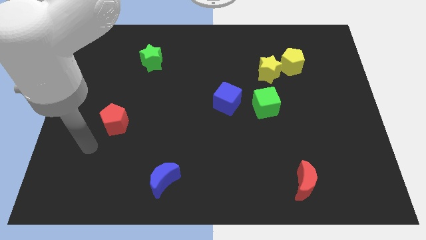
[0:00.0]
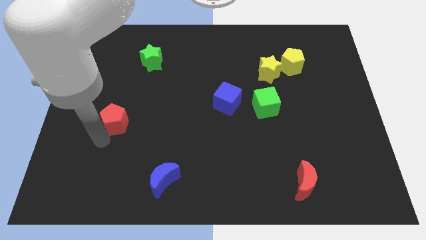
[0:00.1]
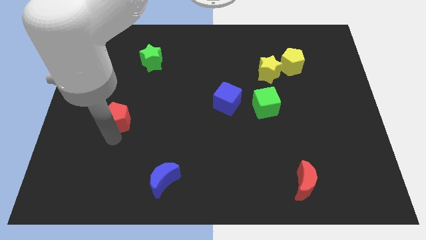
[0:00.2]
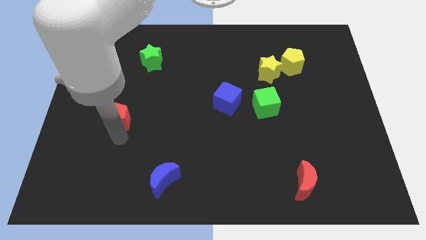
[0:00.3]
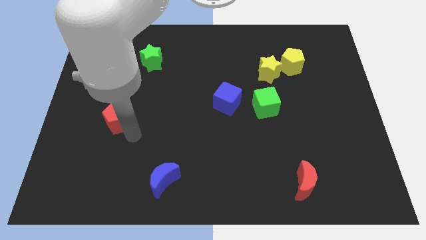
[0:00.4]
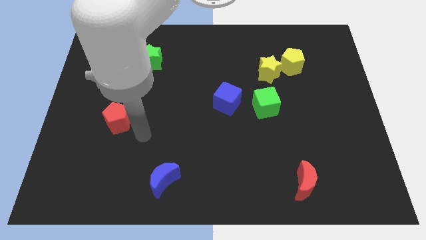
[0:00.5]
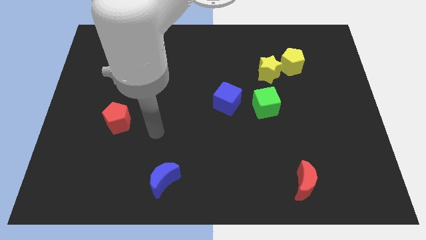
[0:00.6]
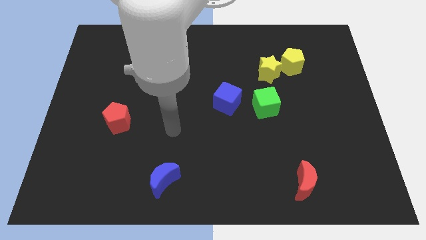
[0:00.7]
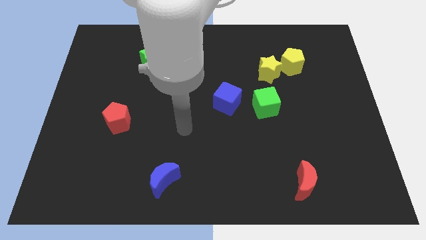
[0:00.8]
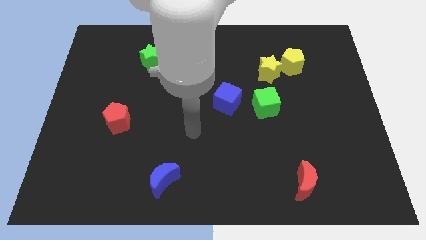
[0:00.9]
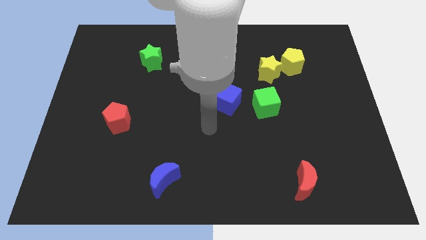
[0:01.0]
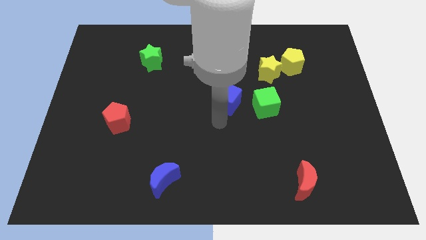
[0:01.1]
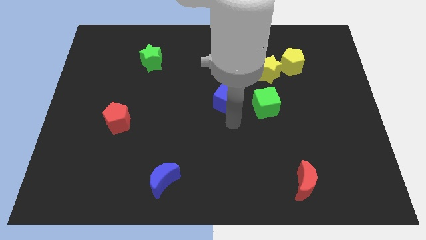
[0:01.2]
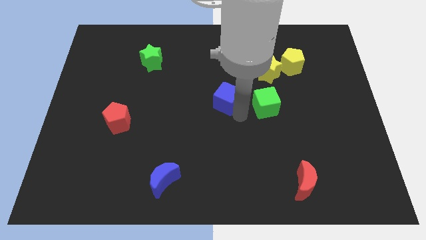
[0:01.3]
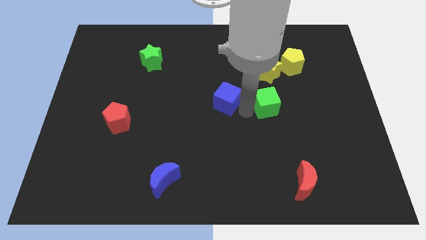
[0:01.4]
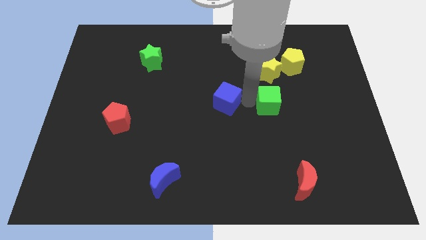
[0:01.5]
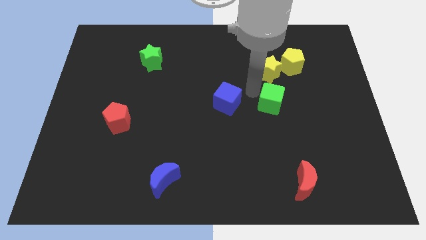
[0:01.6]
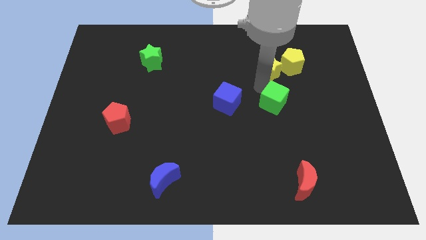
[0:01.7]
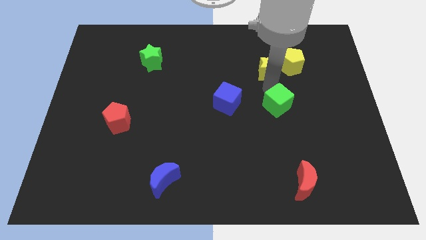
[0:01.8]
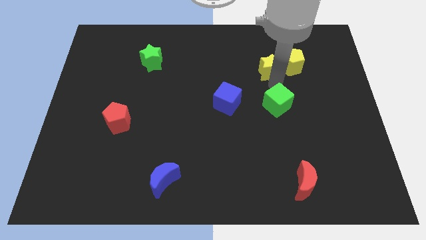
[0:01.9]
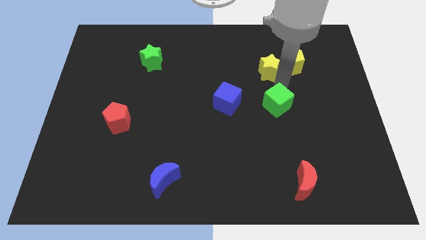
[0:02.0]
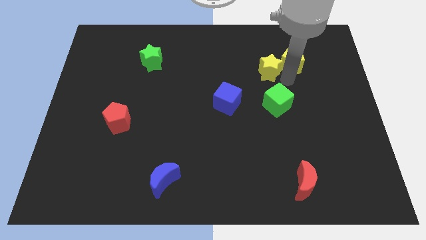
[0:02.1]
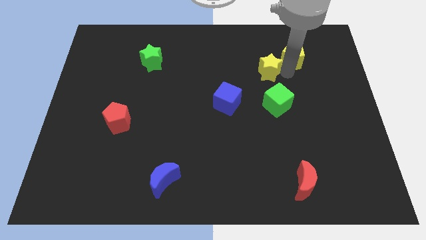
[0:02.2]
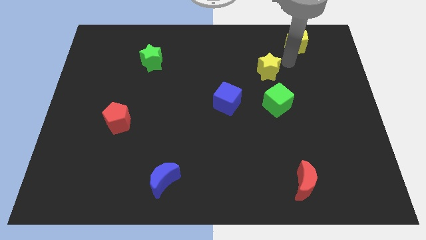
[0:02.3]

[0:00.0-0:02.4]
pull the yellow star apart from the yellow pentagon

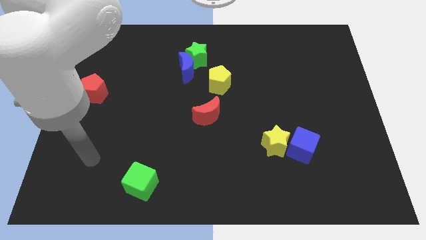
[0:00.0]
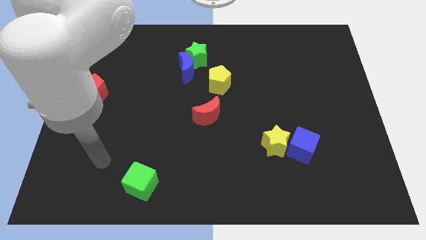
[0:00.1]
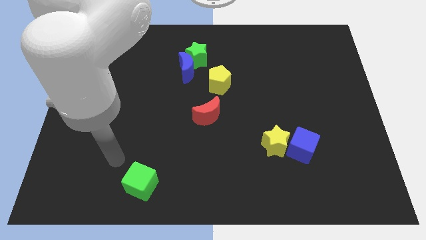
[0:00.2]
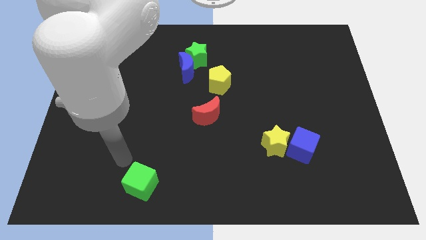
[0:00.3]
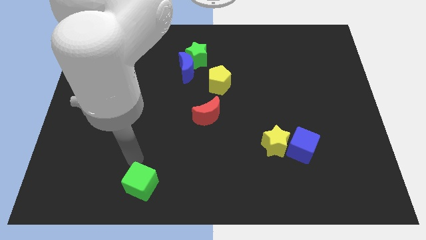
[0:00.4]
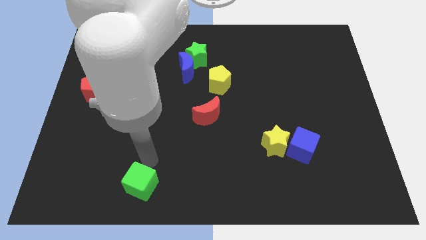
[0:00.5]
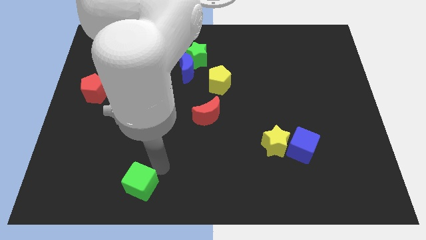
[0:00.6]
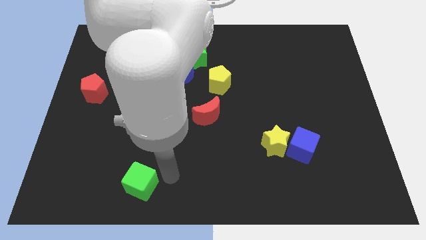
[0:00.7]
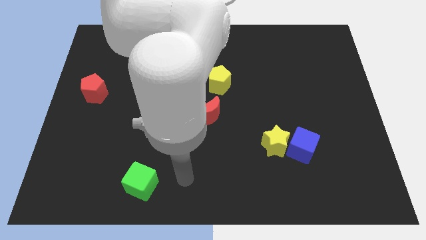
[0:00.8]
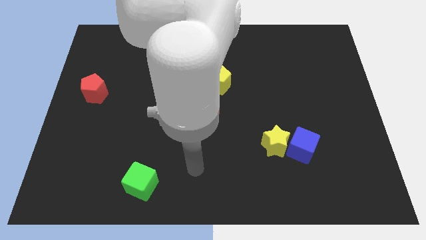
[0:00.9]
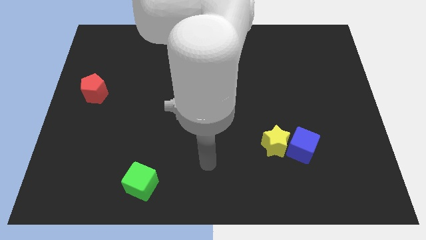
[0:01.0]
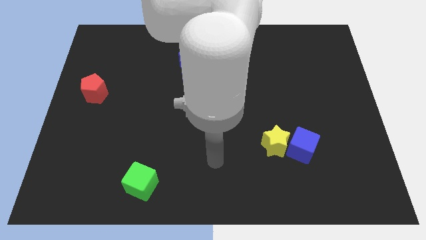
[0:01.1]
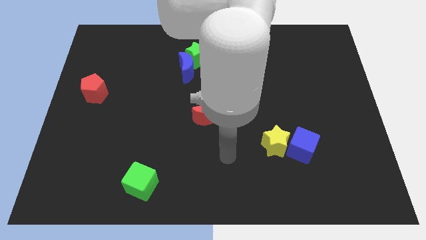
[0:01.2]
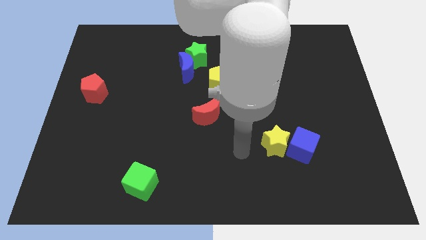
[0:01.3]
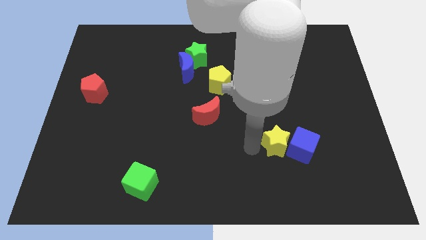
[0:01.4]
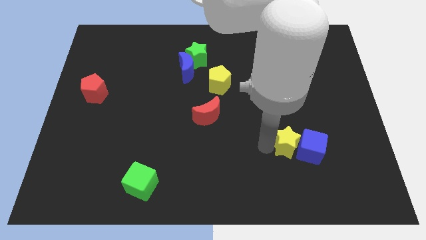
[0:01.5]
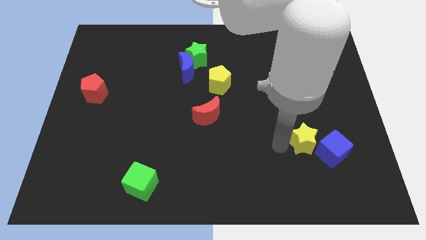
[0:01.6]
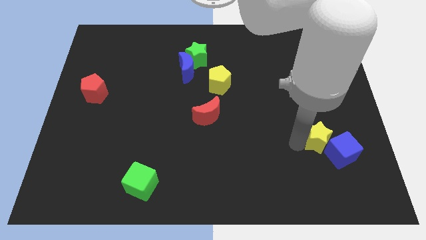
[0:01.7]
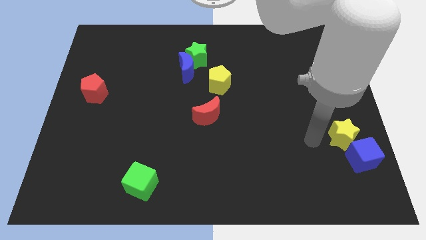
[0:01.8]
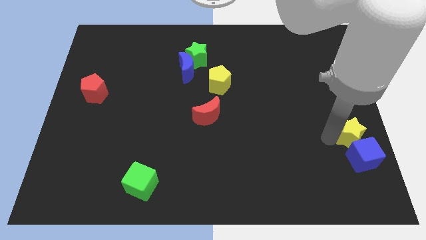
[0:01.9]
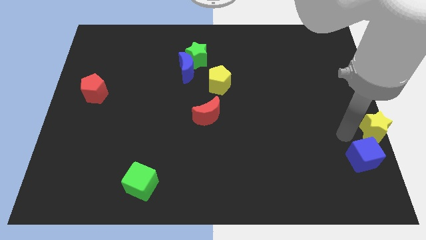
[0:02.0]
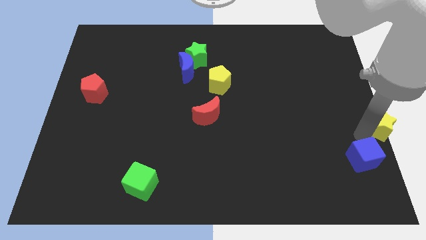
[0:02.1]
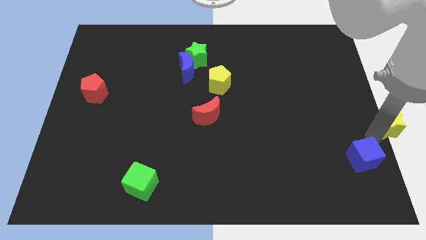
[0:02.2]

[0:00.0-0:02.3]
move the blue cube away from the yellow star

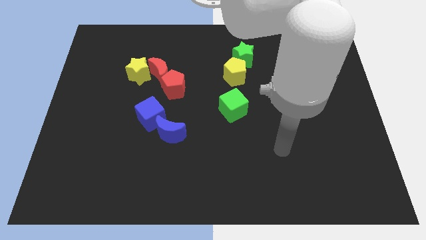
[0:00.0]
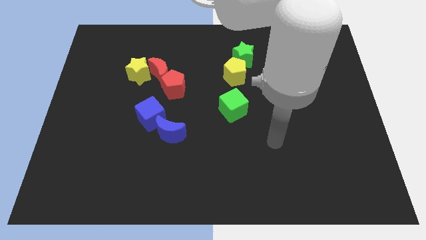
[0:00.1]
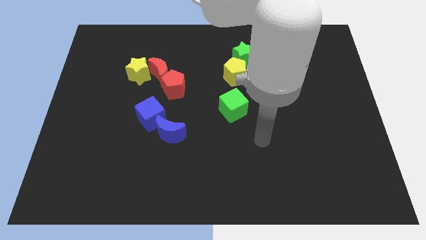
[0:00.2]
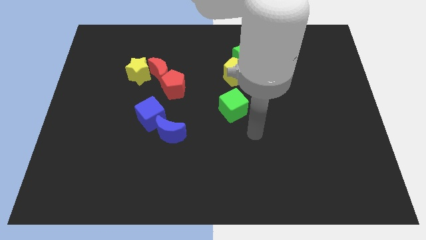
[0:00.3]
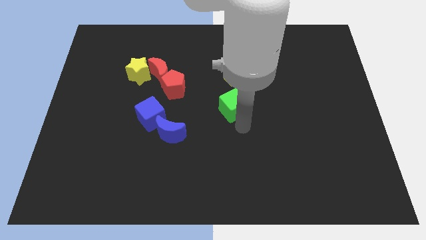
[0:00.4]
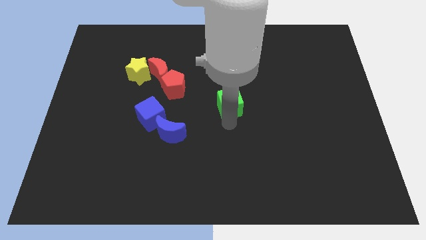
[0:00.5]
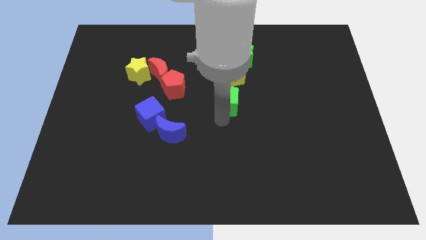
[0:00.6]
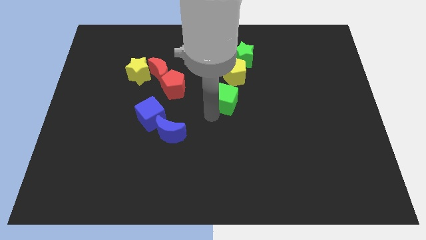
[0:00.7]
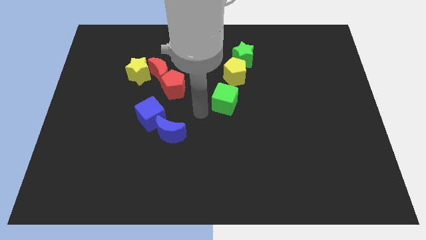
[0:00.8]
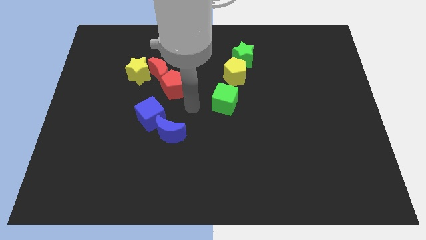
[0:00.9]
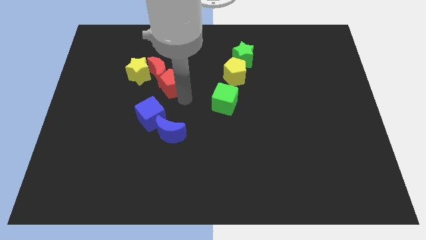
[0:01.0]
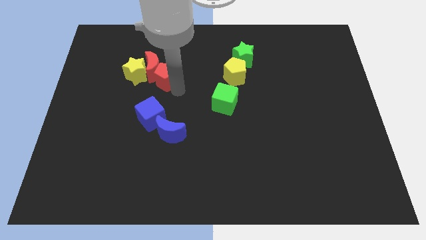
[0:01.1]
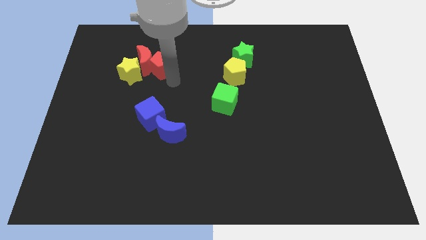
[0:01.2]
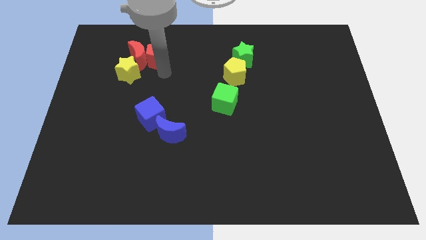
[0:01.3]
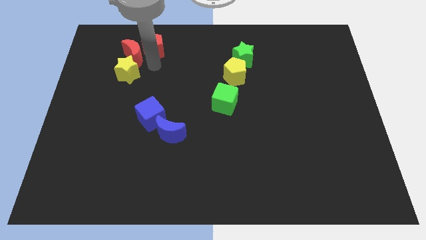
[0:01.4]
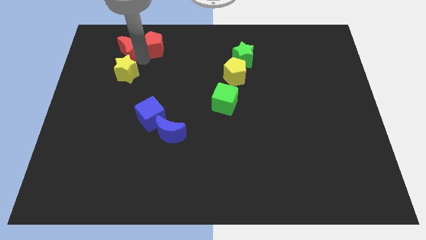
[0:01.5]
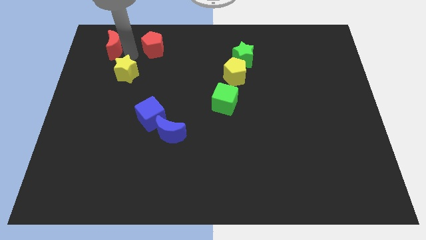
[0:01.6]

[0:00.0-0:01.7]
pull the yellow star apart from the red moon

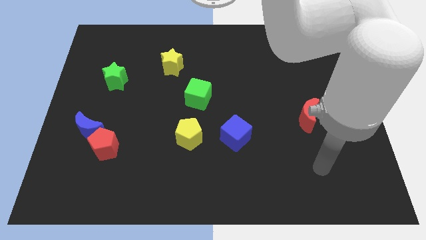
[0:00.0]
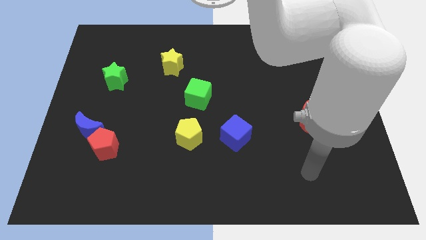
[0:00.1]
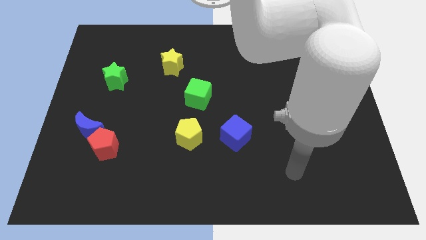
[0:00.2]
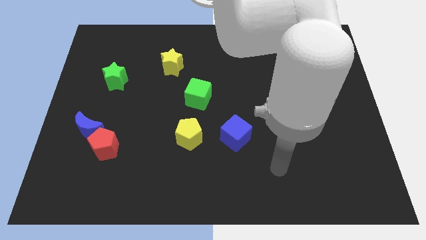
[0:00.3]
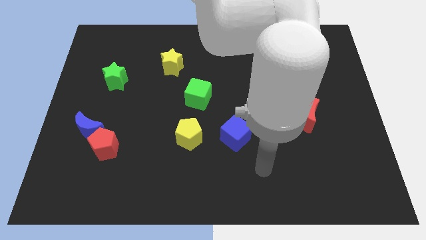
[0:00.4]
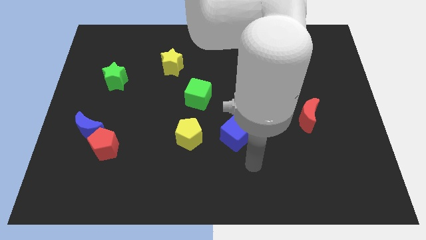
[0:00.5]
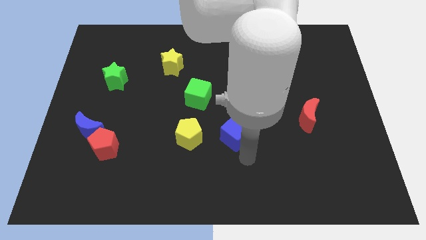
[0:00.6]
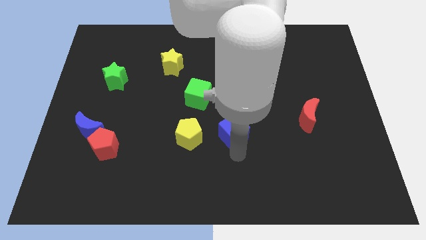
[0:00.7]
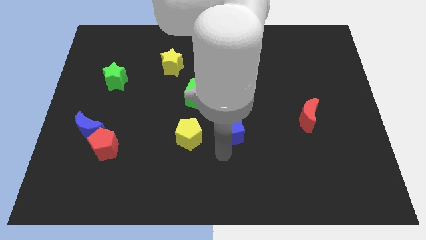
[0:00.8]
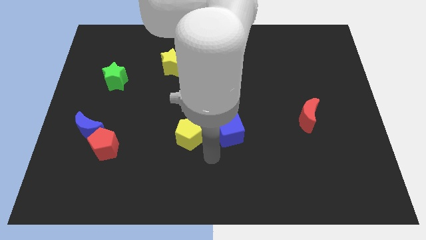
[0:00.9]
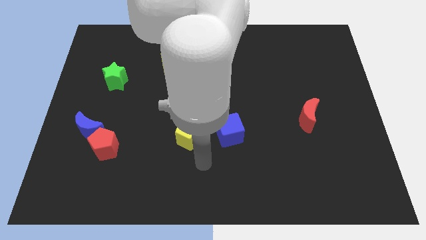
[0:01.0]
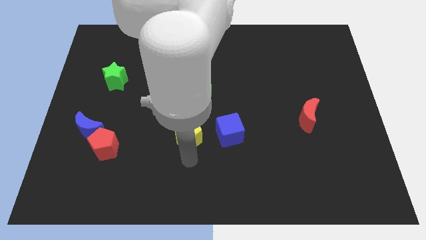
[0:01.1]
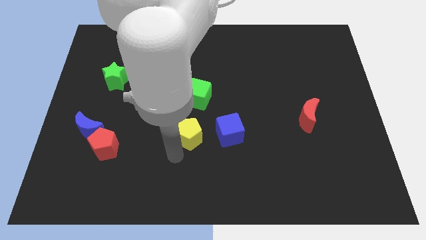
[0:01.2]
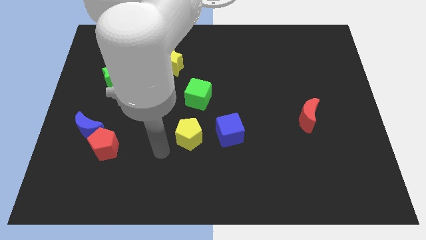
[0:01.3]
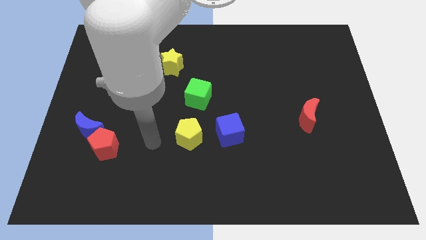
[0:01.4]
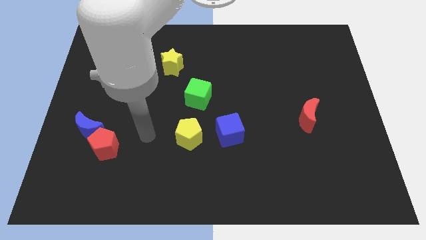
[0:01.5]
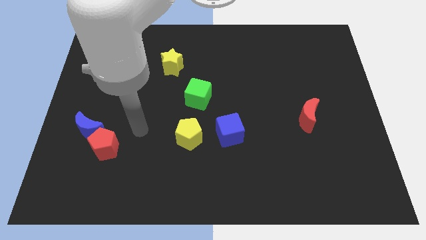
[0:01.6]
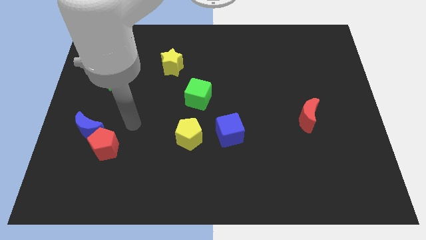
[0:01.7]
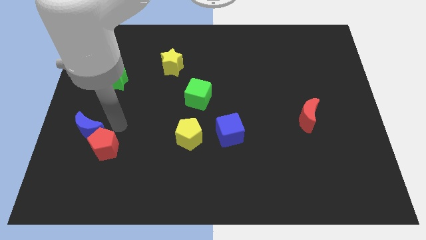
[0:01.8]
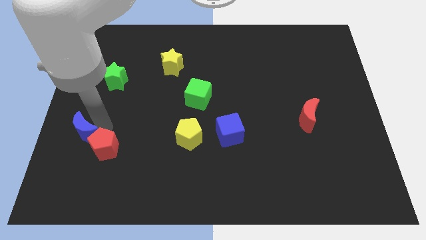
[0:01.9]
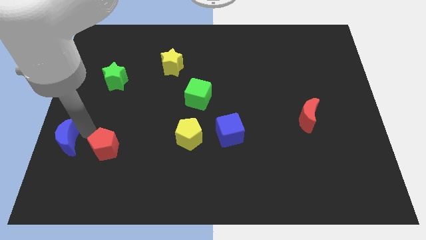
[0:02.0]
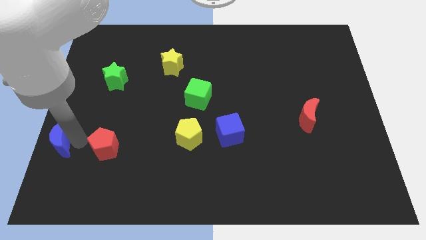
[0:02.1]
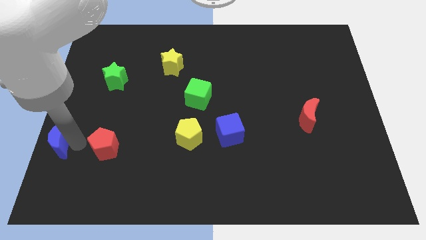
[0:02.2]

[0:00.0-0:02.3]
separate the red pentagon from the blue moon

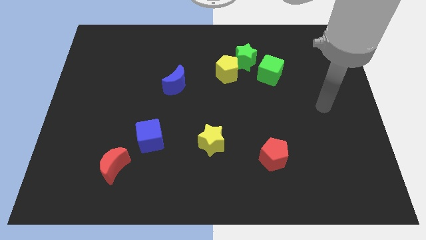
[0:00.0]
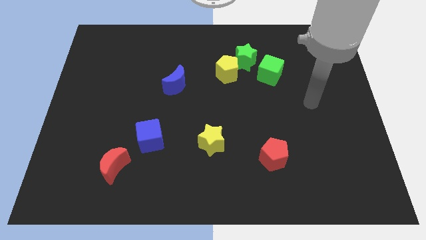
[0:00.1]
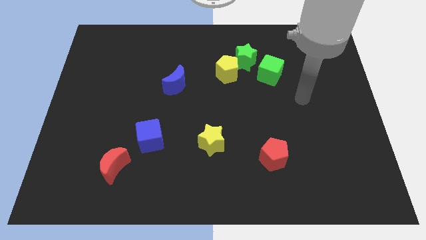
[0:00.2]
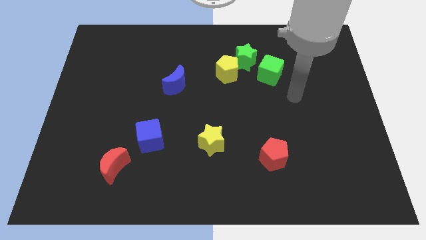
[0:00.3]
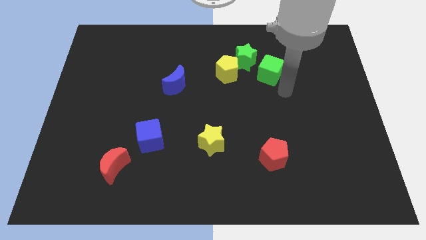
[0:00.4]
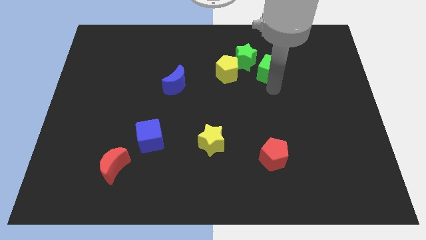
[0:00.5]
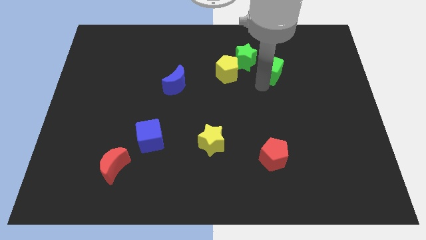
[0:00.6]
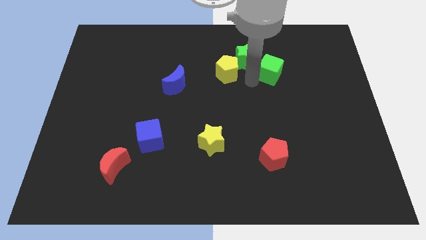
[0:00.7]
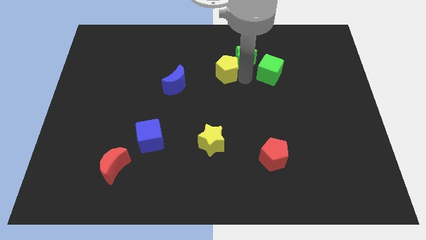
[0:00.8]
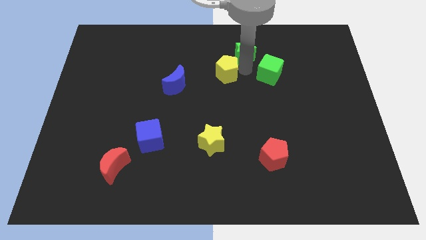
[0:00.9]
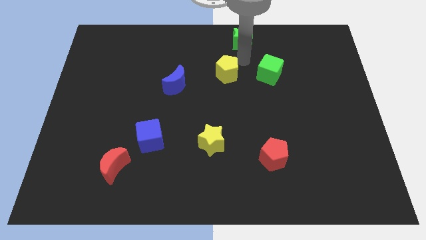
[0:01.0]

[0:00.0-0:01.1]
pull the yellow pentagon apart from the green star
